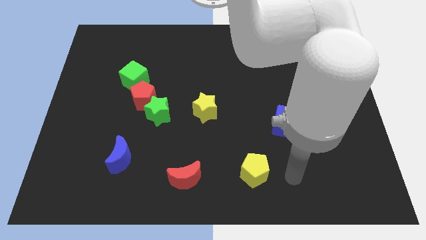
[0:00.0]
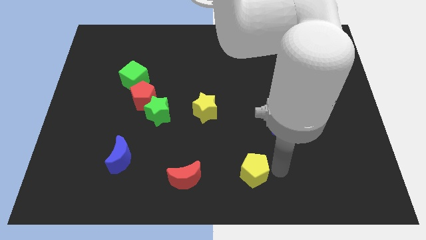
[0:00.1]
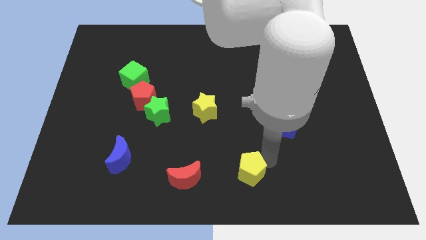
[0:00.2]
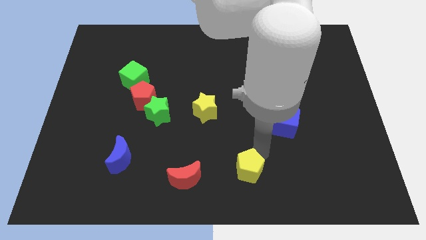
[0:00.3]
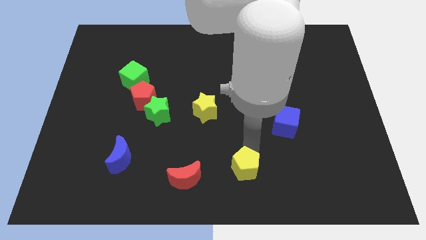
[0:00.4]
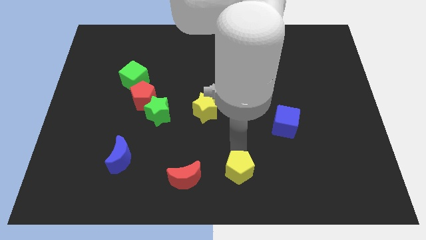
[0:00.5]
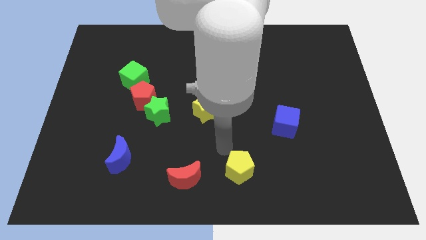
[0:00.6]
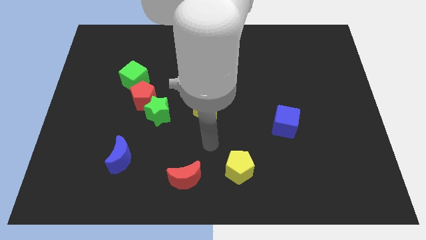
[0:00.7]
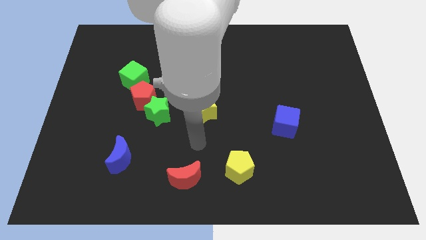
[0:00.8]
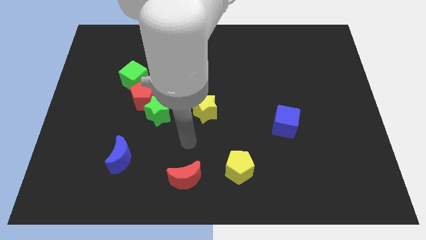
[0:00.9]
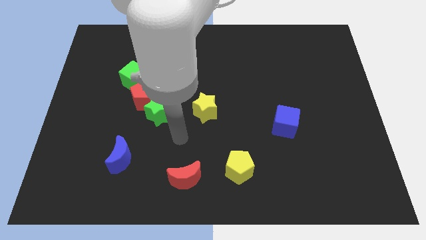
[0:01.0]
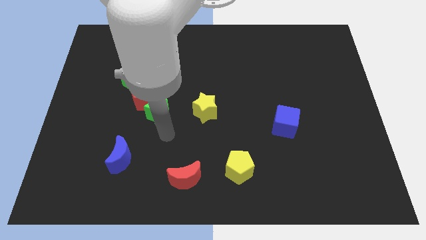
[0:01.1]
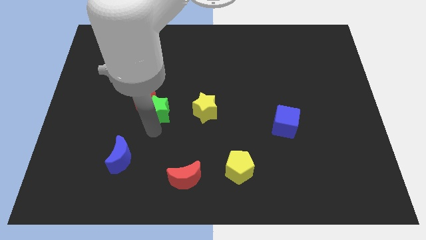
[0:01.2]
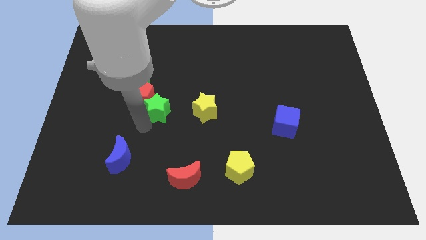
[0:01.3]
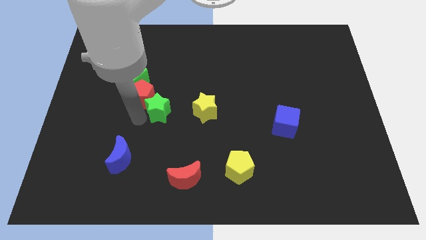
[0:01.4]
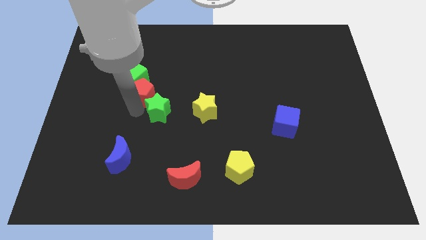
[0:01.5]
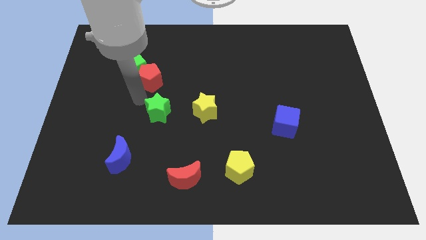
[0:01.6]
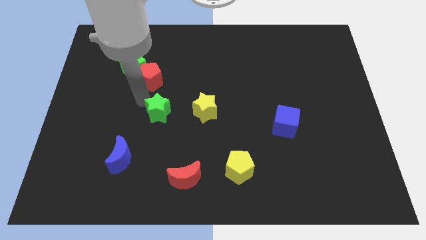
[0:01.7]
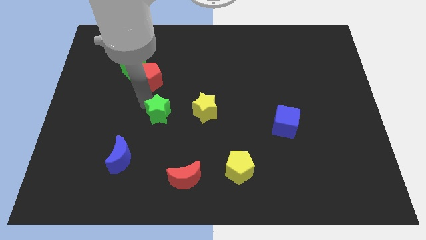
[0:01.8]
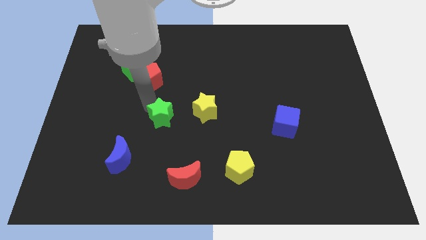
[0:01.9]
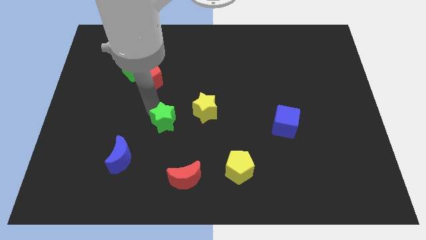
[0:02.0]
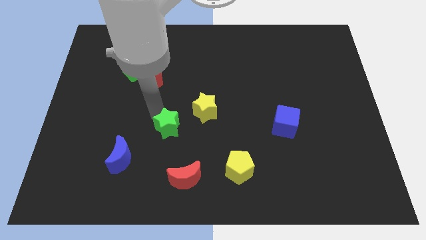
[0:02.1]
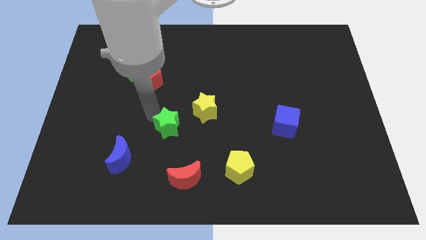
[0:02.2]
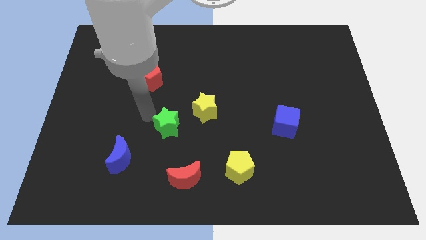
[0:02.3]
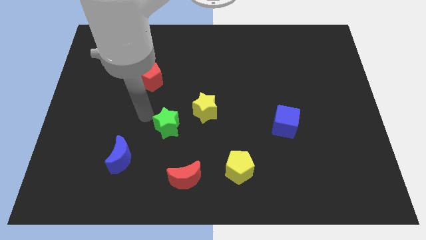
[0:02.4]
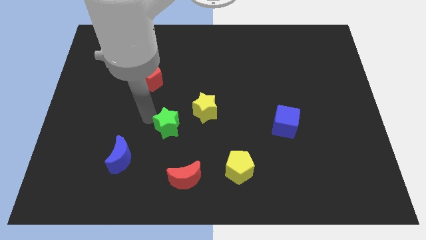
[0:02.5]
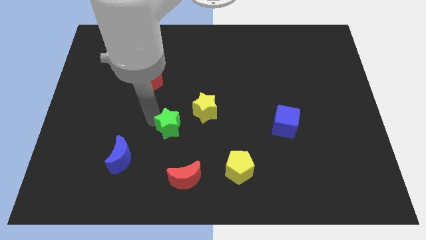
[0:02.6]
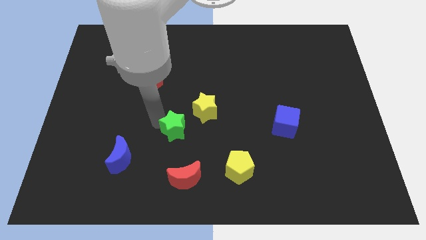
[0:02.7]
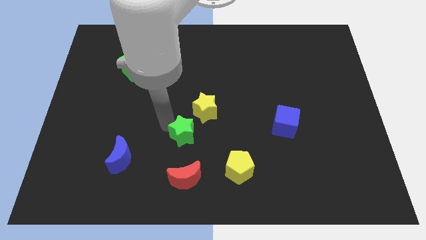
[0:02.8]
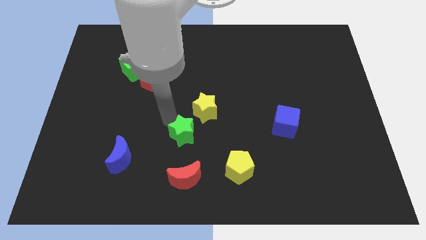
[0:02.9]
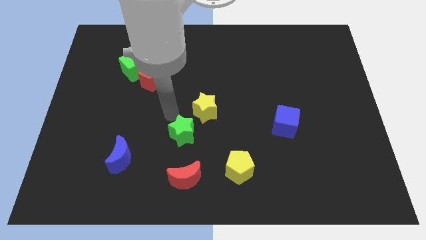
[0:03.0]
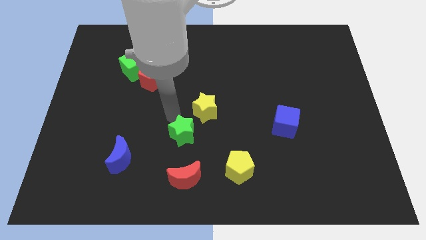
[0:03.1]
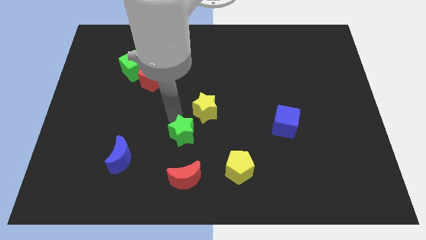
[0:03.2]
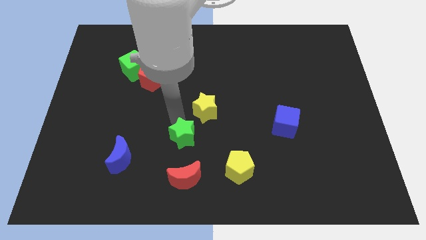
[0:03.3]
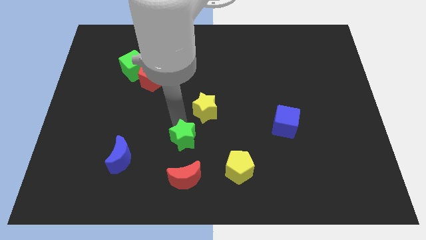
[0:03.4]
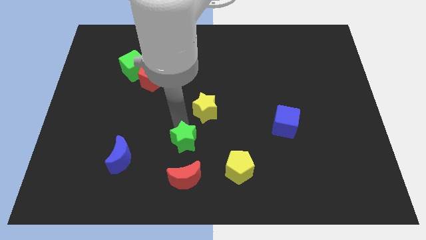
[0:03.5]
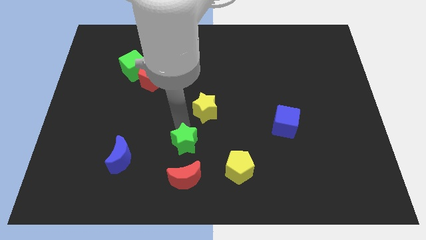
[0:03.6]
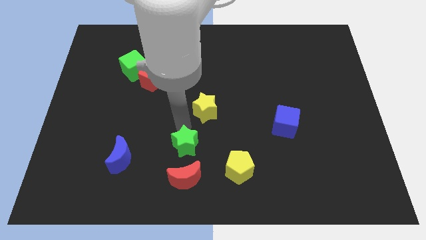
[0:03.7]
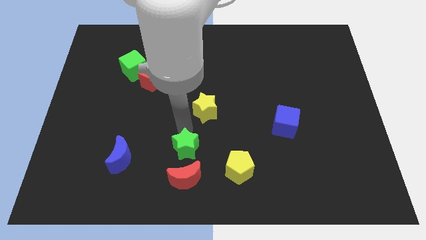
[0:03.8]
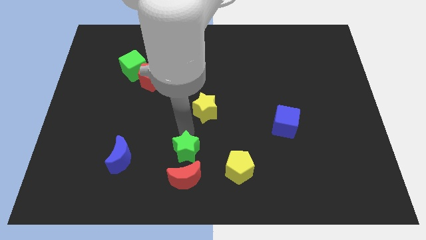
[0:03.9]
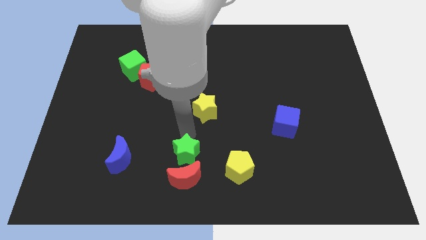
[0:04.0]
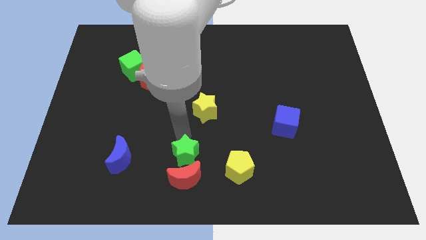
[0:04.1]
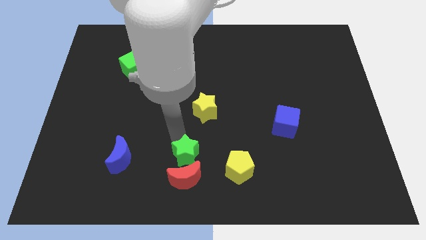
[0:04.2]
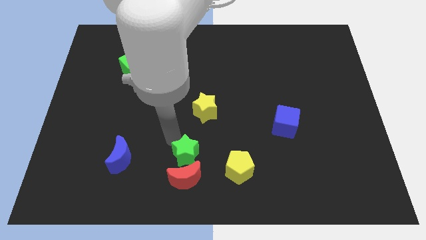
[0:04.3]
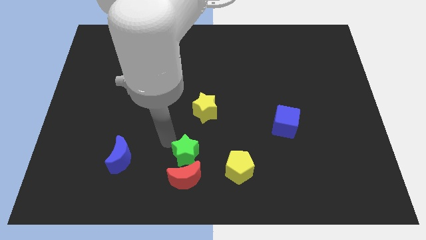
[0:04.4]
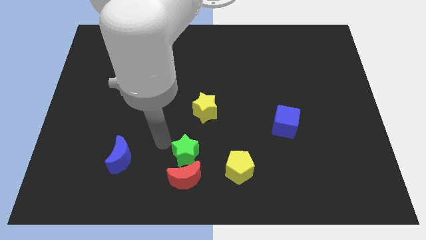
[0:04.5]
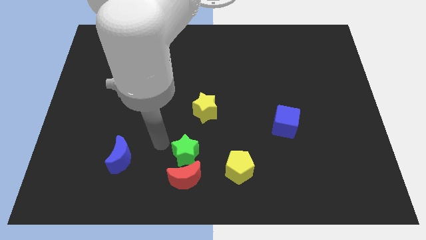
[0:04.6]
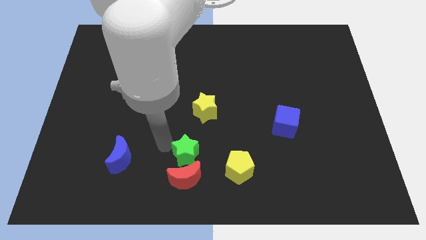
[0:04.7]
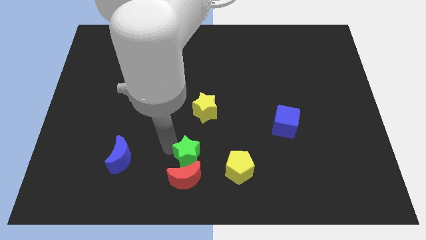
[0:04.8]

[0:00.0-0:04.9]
put the green star to the bottom

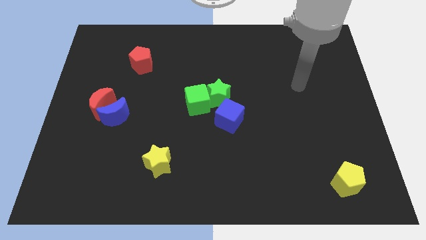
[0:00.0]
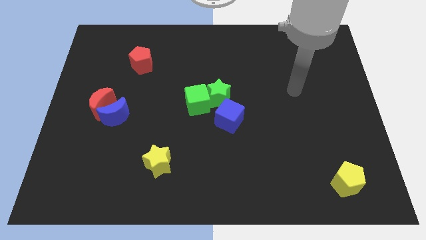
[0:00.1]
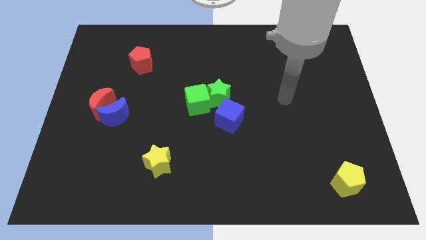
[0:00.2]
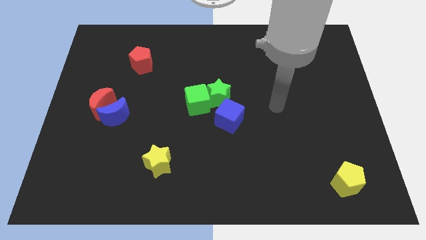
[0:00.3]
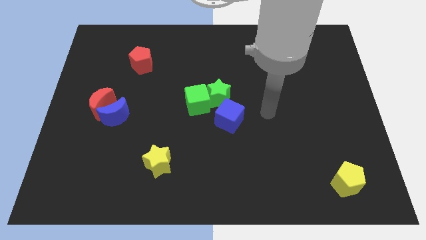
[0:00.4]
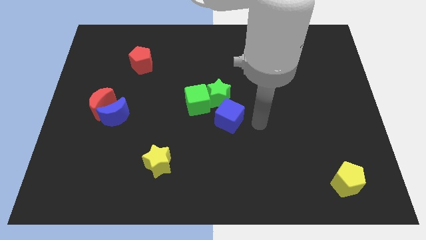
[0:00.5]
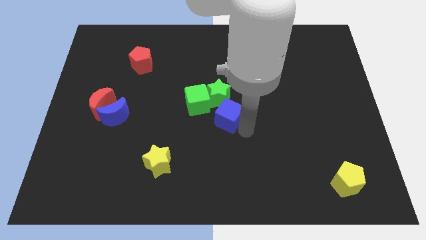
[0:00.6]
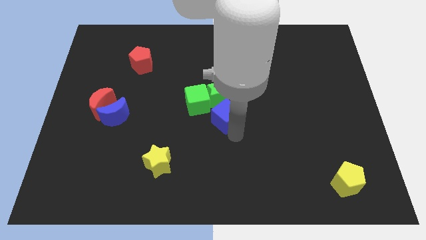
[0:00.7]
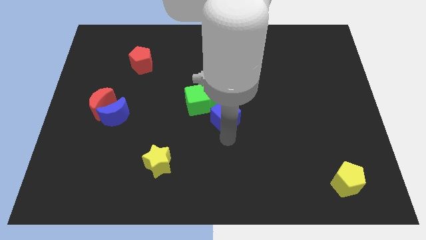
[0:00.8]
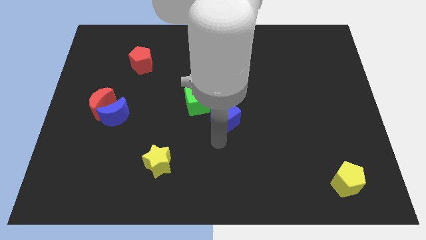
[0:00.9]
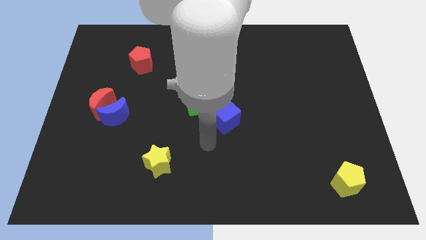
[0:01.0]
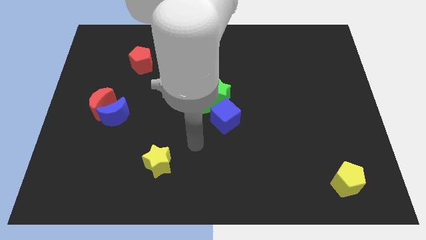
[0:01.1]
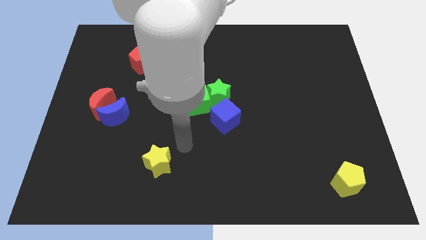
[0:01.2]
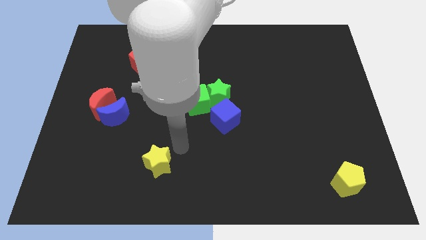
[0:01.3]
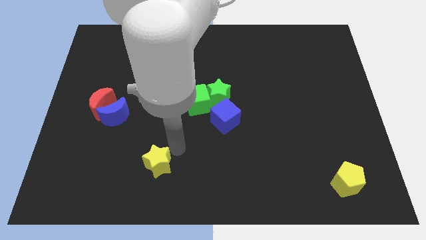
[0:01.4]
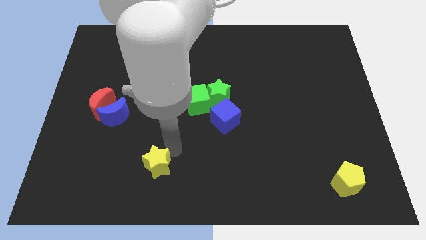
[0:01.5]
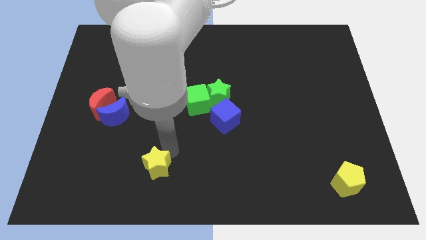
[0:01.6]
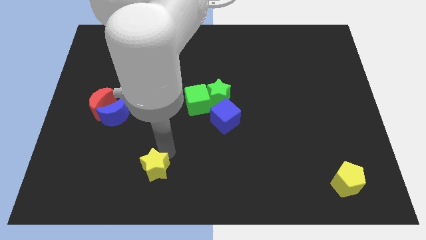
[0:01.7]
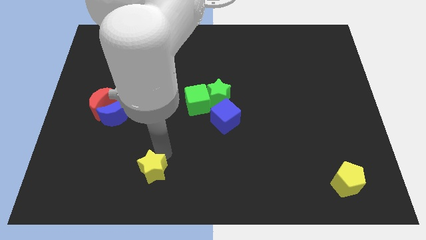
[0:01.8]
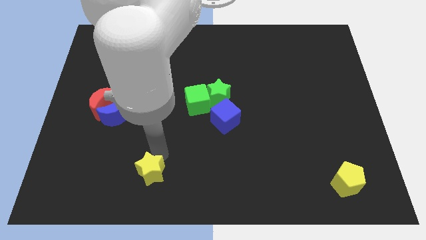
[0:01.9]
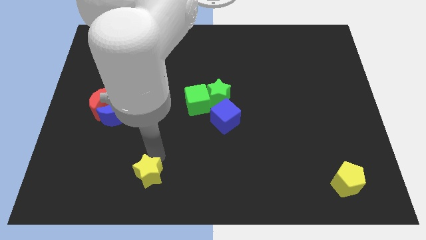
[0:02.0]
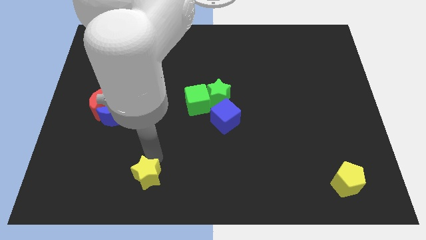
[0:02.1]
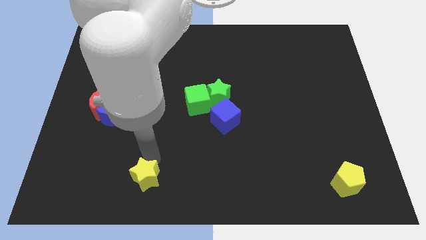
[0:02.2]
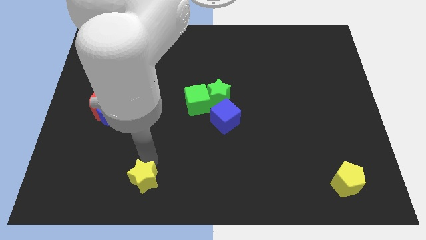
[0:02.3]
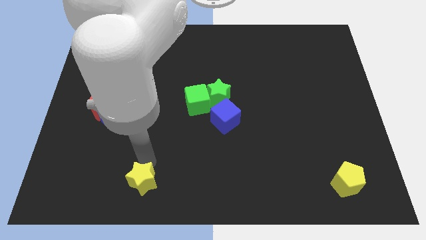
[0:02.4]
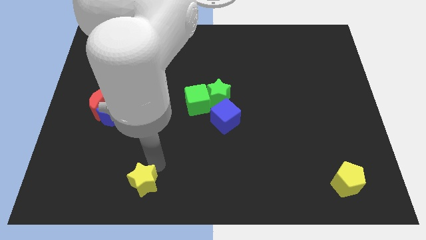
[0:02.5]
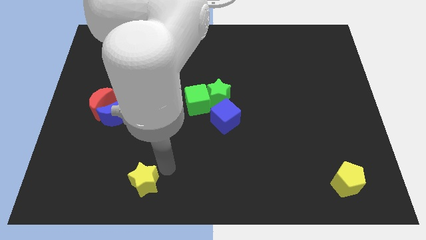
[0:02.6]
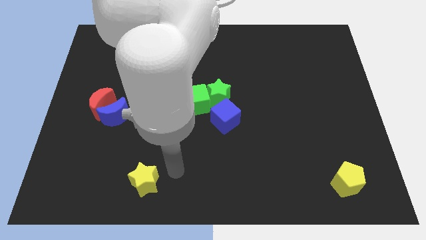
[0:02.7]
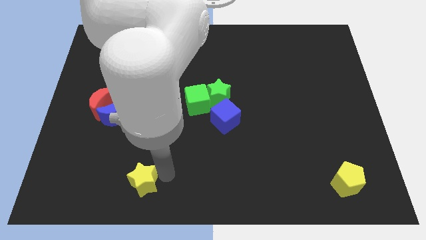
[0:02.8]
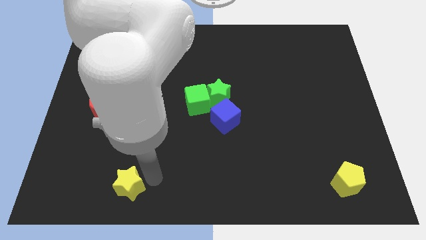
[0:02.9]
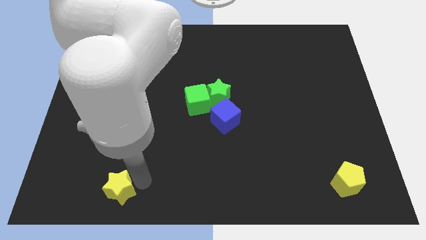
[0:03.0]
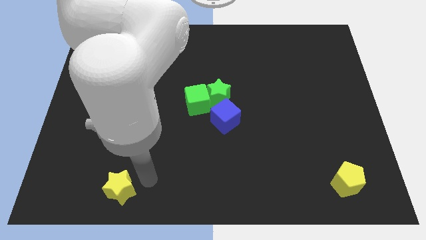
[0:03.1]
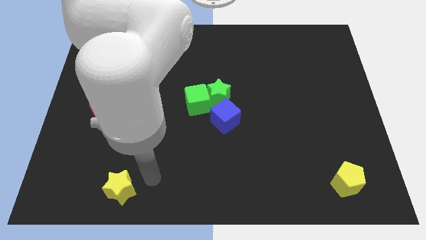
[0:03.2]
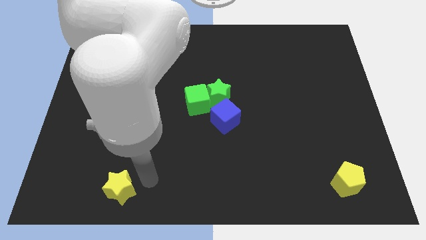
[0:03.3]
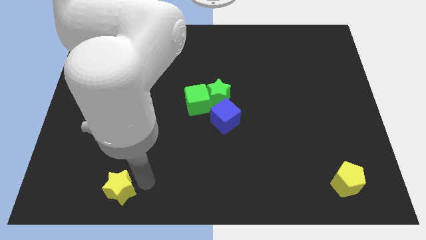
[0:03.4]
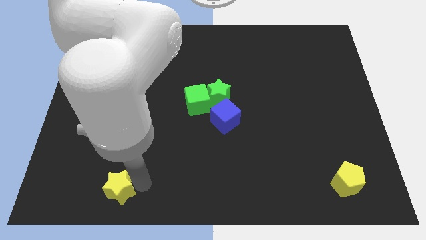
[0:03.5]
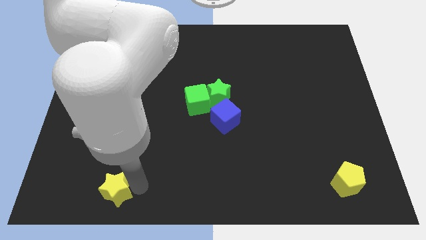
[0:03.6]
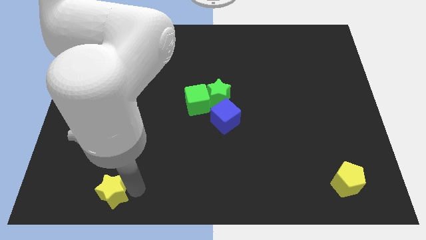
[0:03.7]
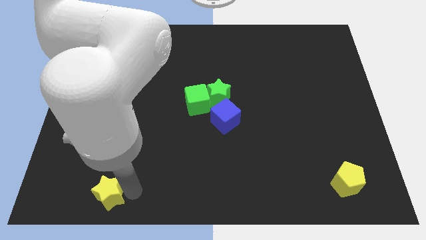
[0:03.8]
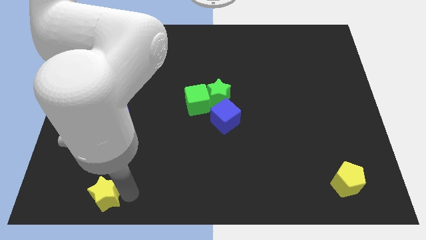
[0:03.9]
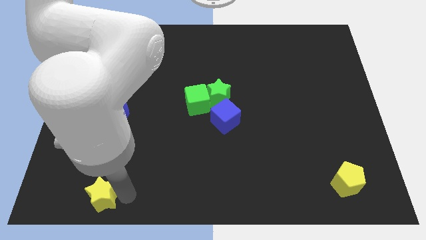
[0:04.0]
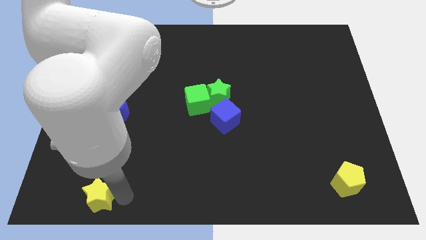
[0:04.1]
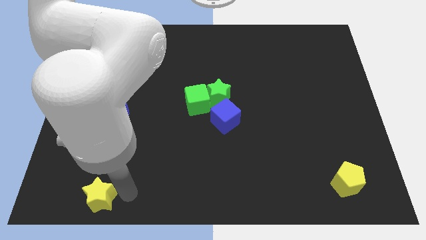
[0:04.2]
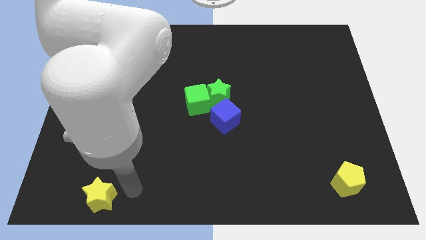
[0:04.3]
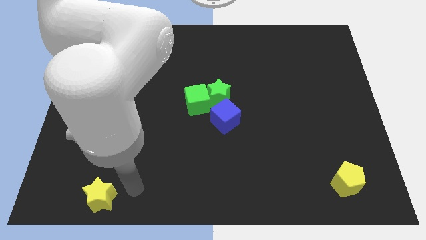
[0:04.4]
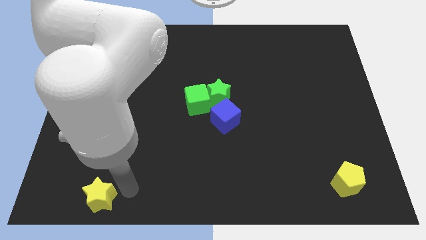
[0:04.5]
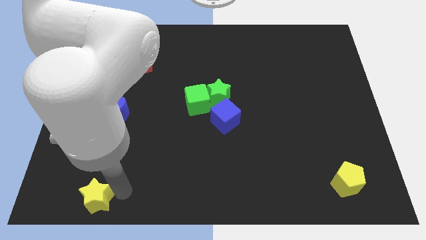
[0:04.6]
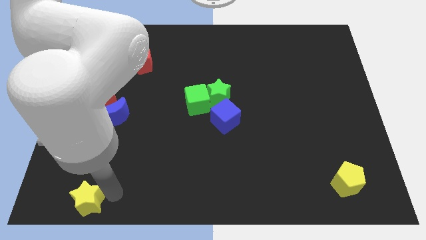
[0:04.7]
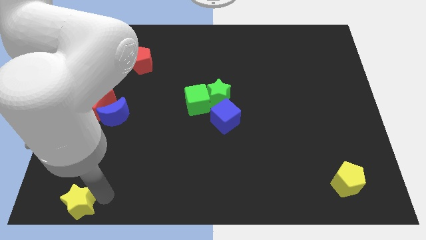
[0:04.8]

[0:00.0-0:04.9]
move the yellow star to the bottom left of the board
